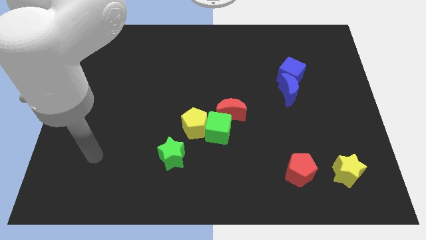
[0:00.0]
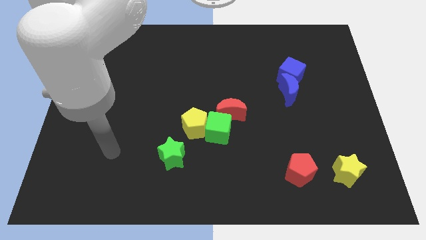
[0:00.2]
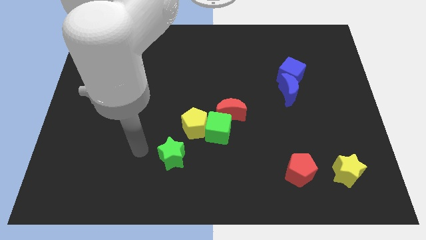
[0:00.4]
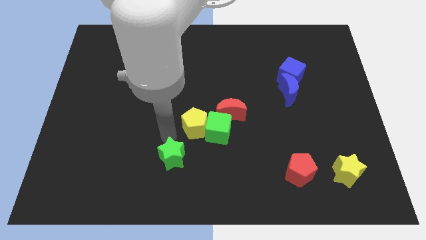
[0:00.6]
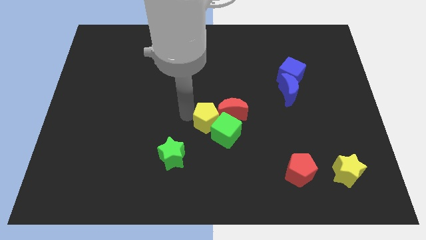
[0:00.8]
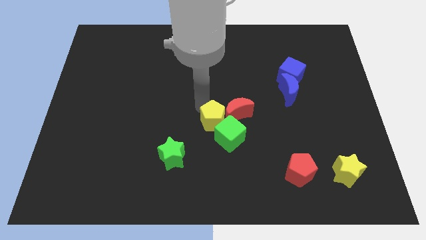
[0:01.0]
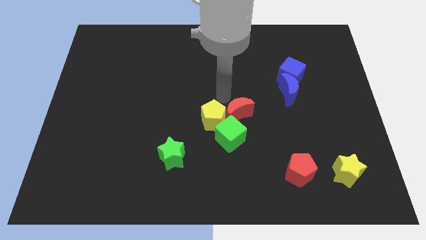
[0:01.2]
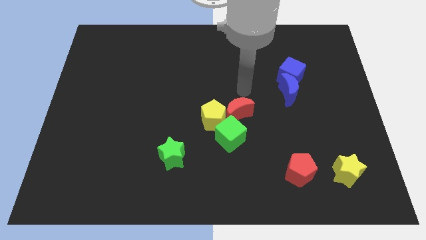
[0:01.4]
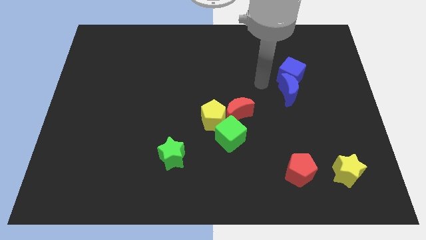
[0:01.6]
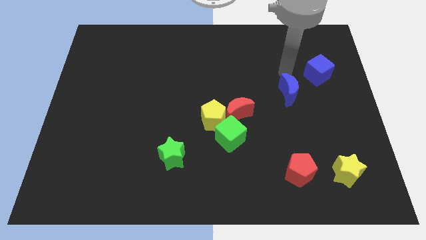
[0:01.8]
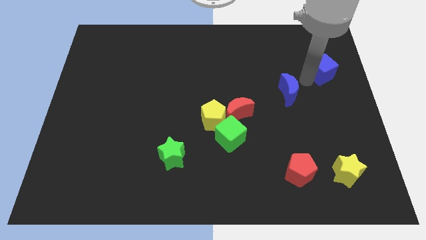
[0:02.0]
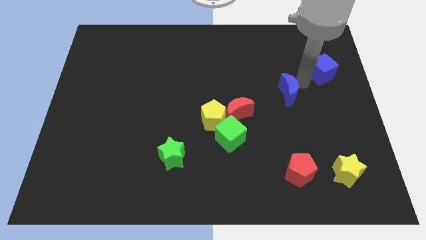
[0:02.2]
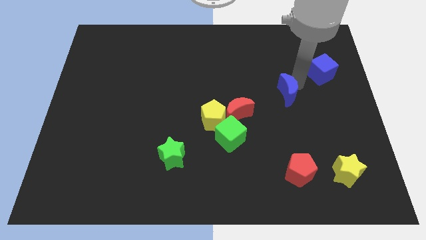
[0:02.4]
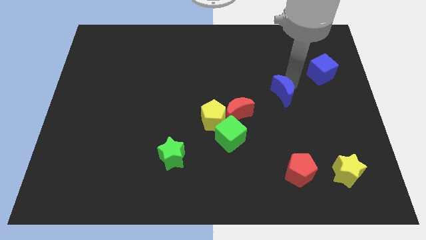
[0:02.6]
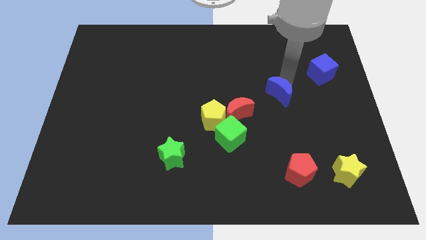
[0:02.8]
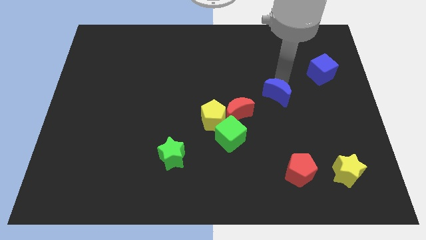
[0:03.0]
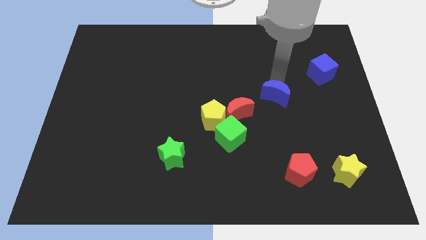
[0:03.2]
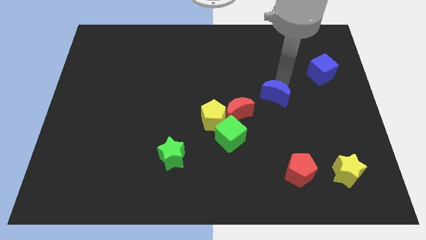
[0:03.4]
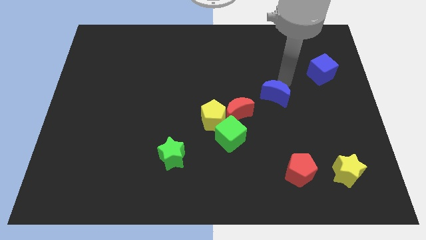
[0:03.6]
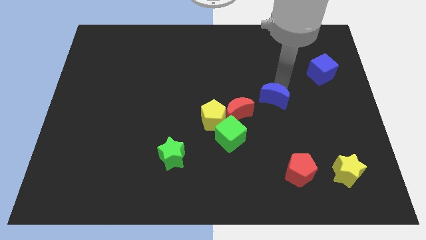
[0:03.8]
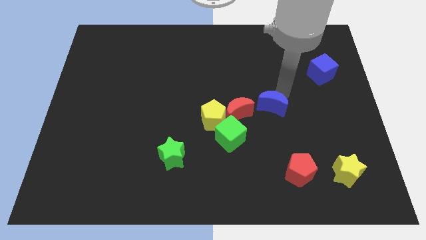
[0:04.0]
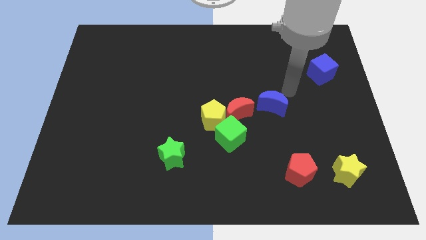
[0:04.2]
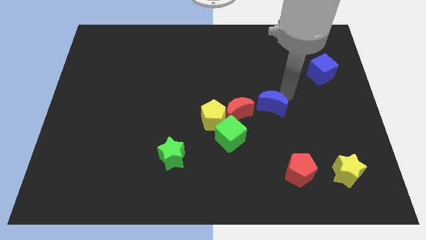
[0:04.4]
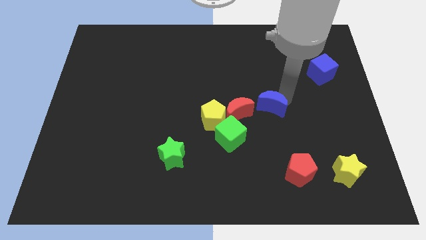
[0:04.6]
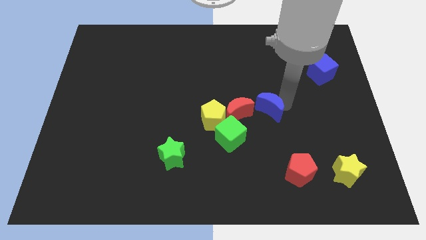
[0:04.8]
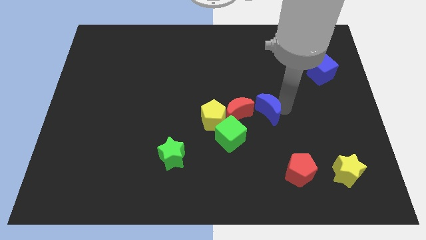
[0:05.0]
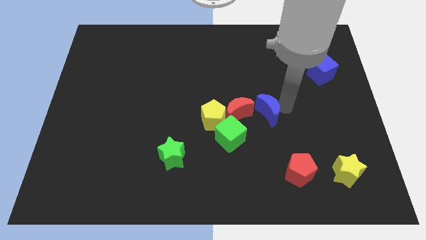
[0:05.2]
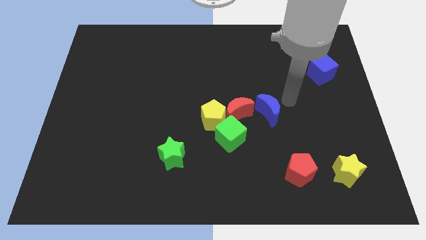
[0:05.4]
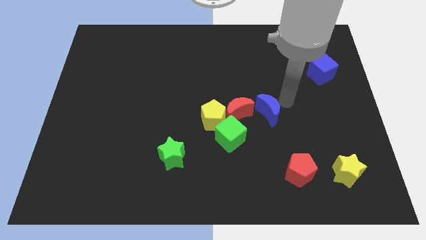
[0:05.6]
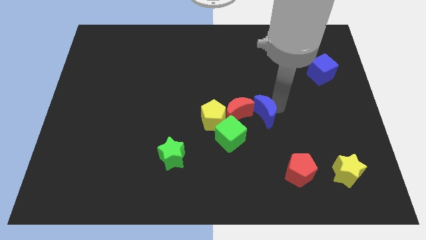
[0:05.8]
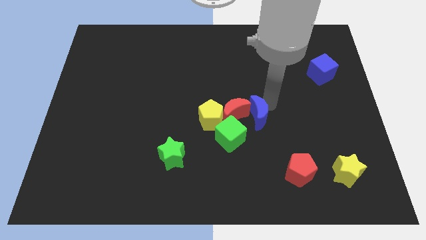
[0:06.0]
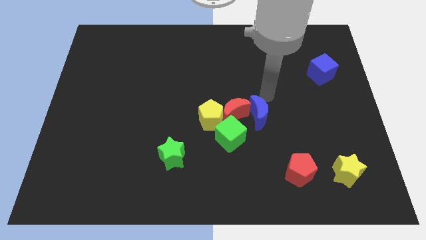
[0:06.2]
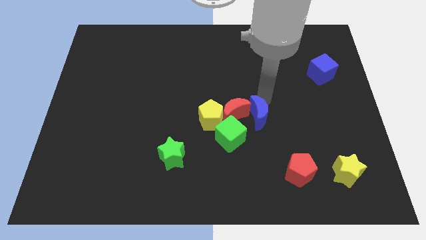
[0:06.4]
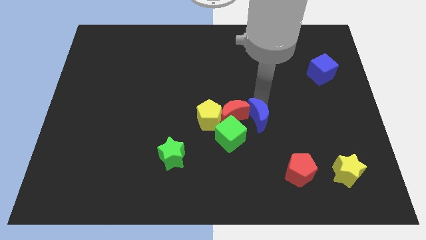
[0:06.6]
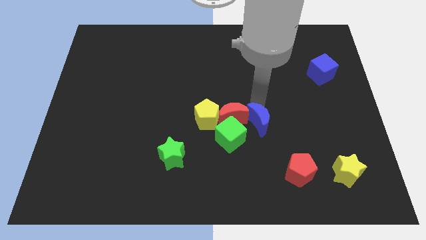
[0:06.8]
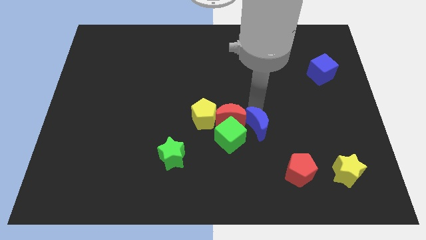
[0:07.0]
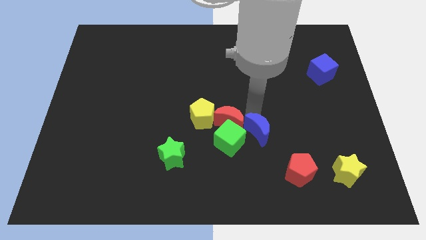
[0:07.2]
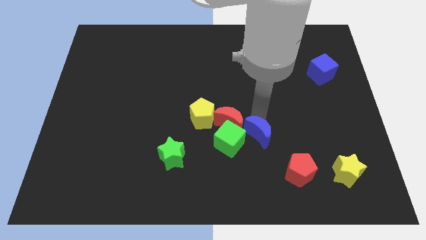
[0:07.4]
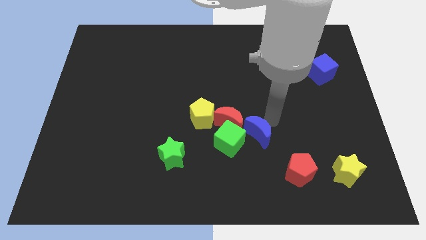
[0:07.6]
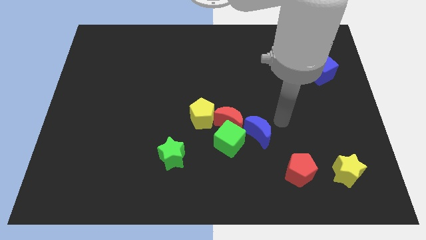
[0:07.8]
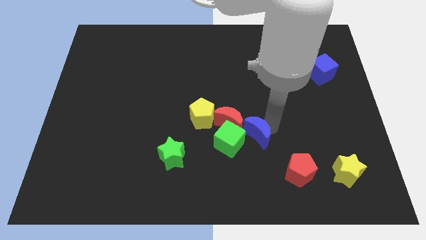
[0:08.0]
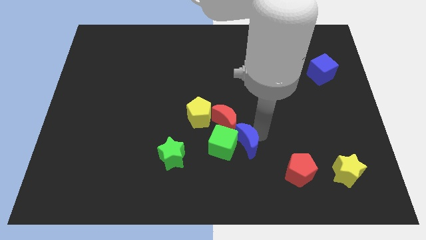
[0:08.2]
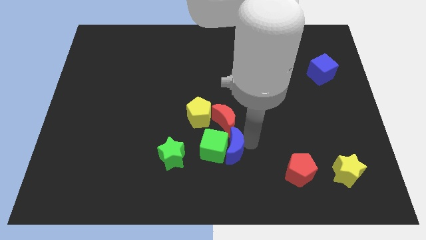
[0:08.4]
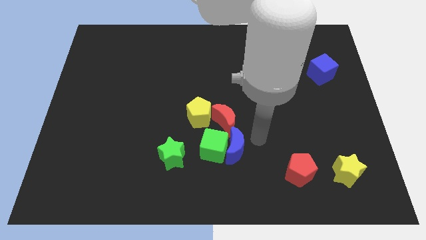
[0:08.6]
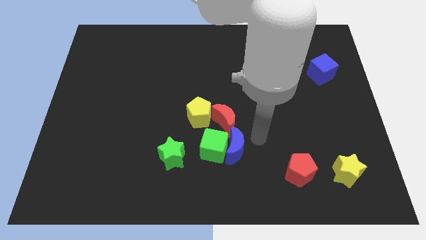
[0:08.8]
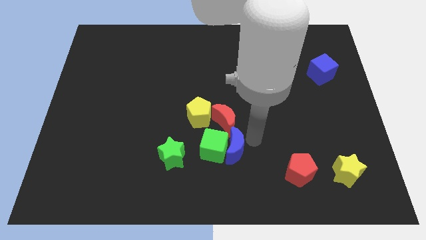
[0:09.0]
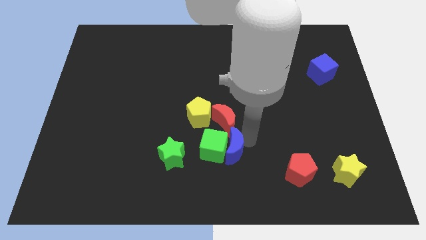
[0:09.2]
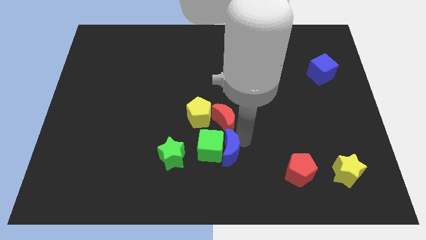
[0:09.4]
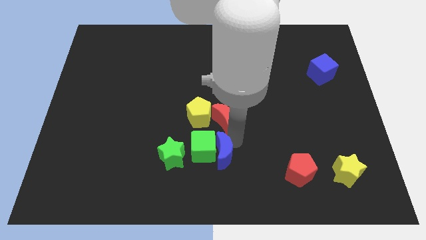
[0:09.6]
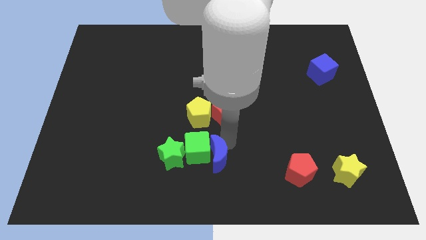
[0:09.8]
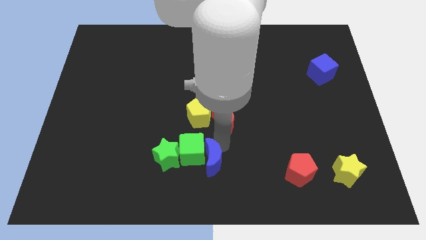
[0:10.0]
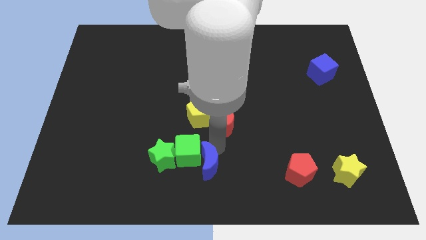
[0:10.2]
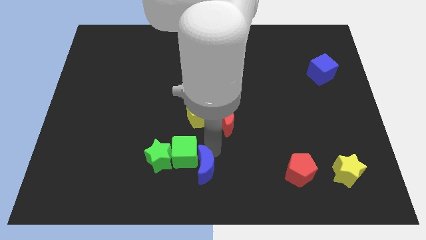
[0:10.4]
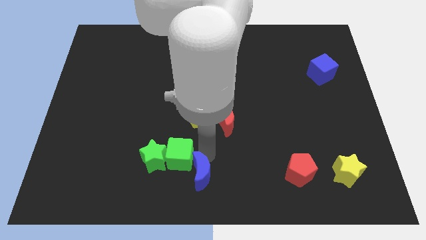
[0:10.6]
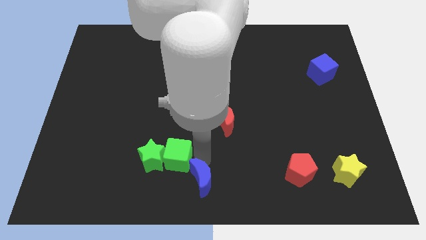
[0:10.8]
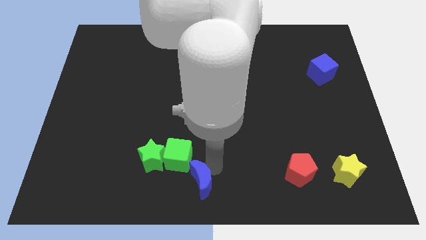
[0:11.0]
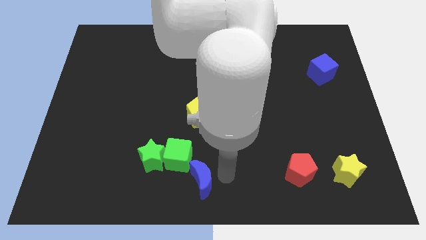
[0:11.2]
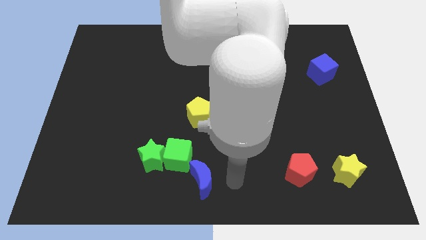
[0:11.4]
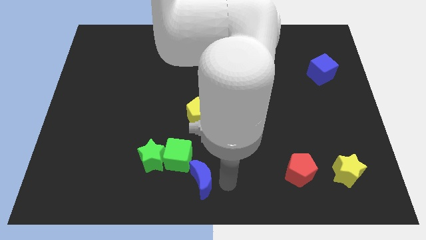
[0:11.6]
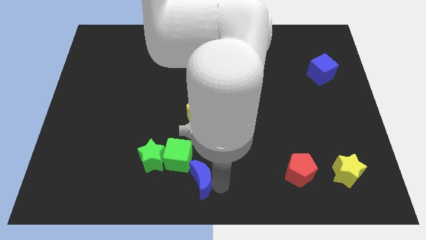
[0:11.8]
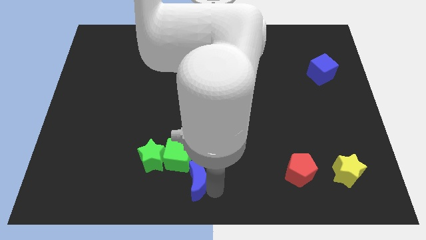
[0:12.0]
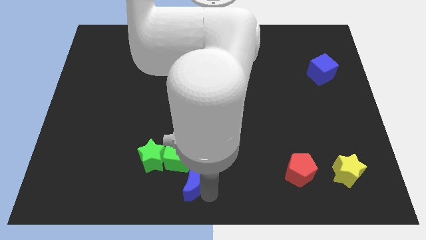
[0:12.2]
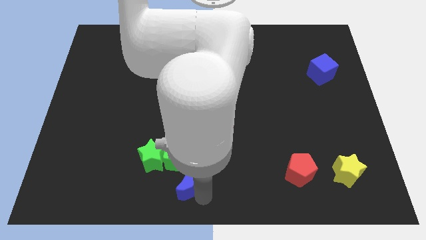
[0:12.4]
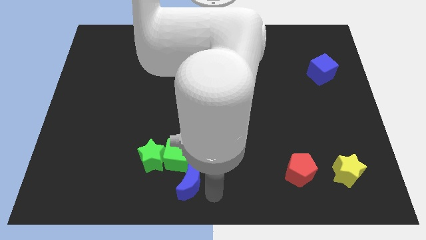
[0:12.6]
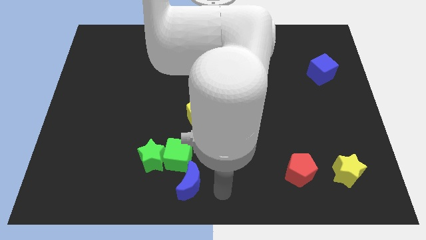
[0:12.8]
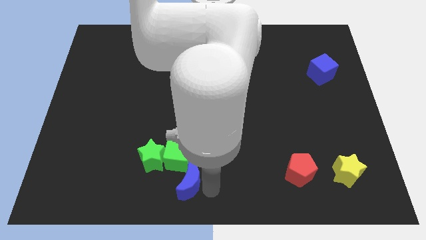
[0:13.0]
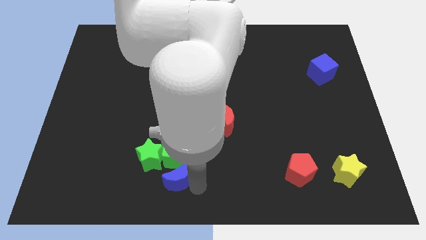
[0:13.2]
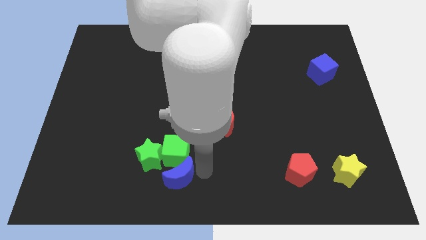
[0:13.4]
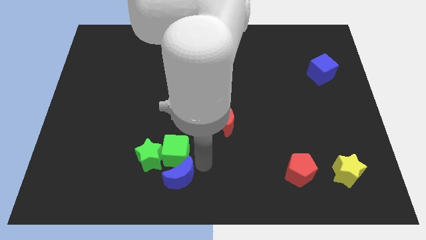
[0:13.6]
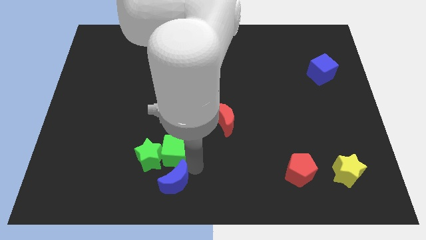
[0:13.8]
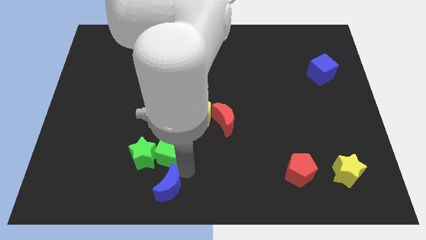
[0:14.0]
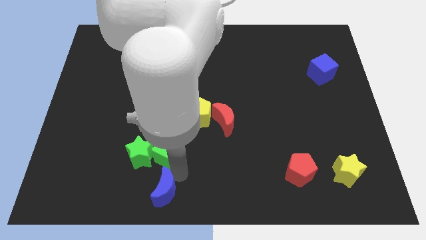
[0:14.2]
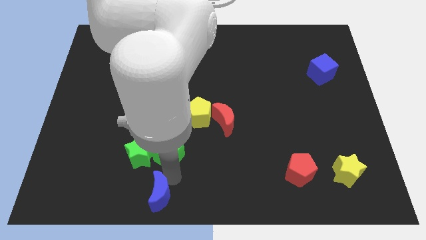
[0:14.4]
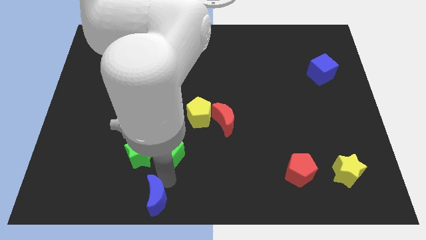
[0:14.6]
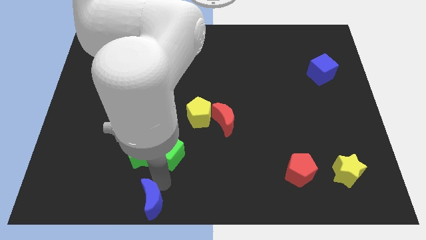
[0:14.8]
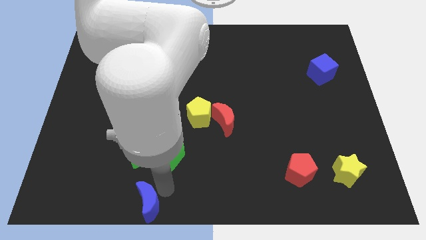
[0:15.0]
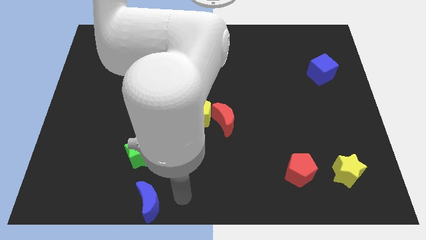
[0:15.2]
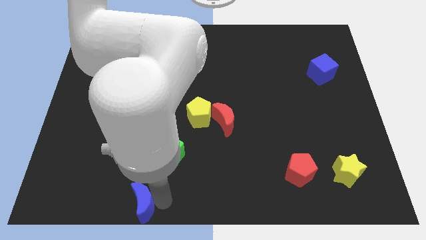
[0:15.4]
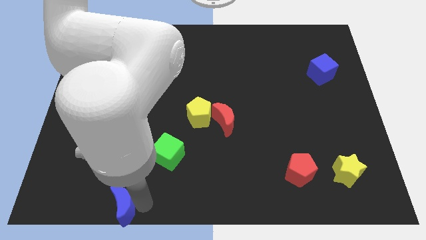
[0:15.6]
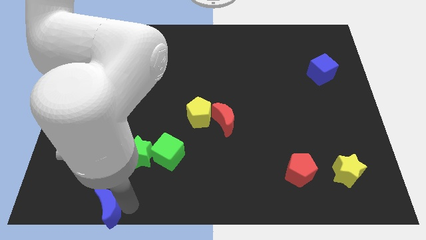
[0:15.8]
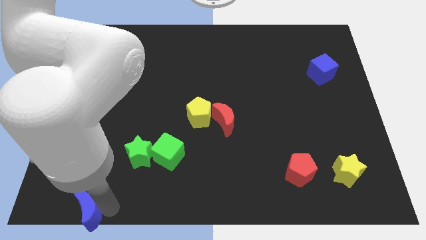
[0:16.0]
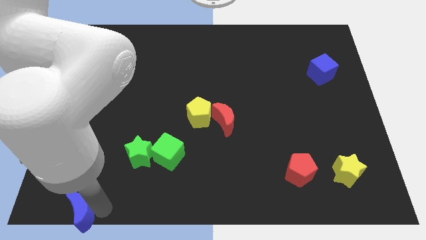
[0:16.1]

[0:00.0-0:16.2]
move the blue moon to the bottom left of the board
